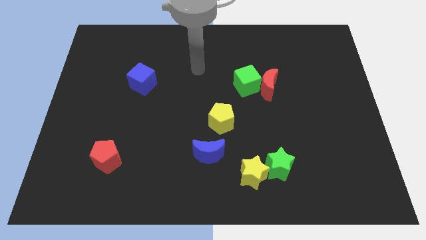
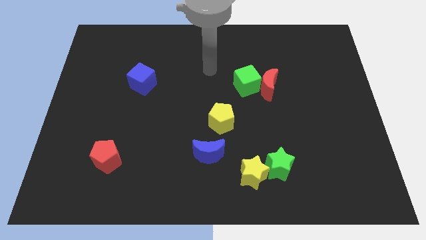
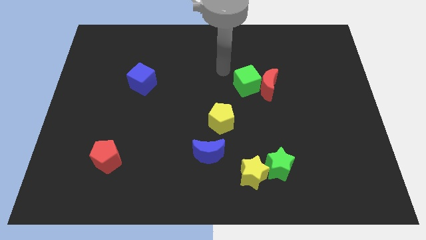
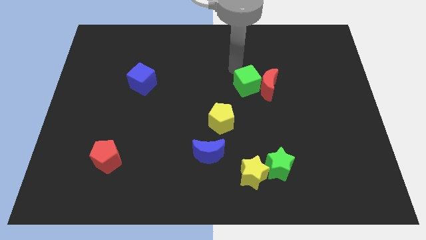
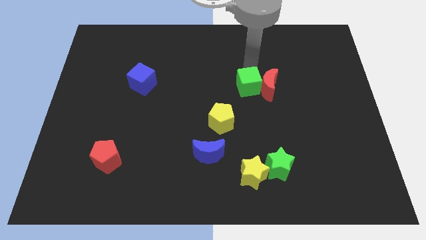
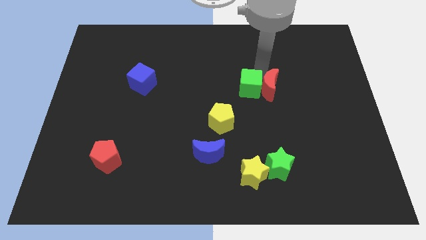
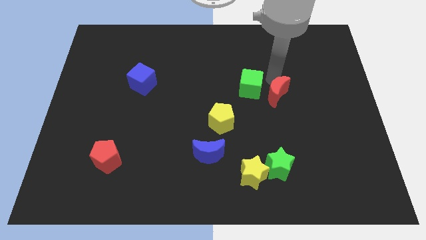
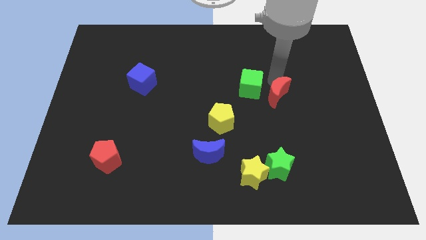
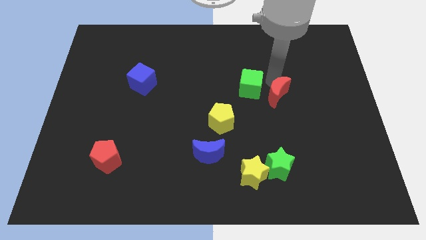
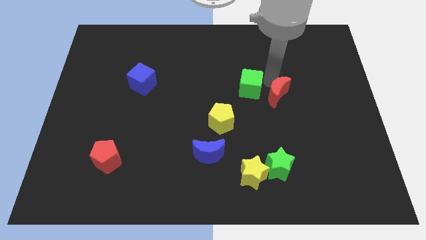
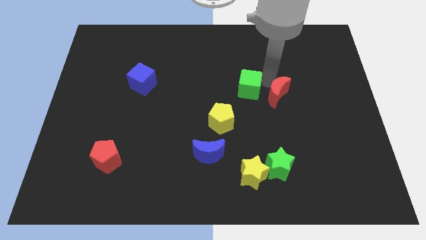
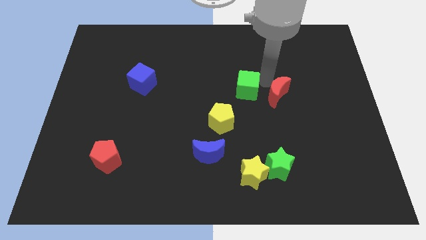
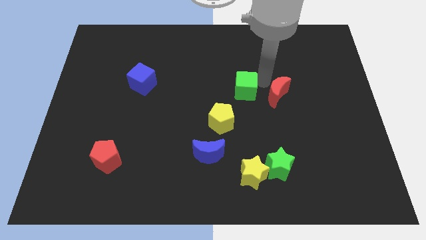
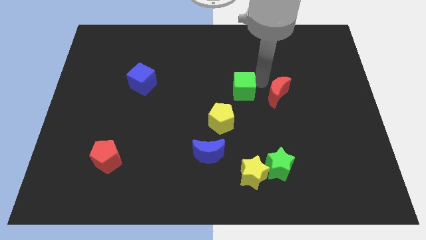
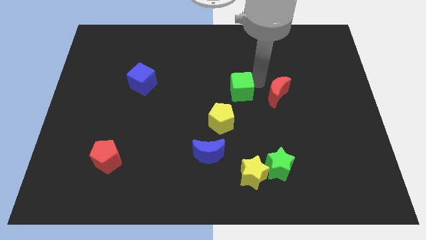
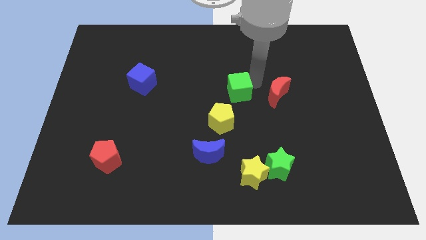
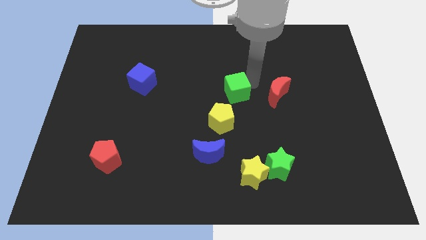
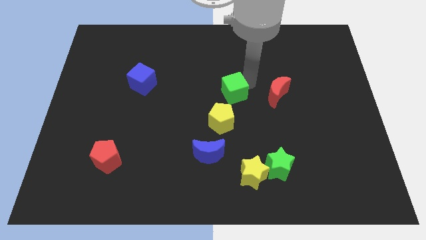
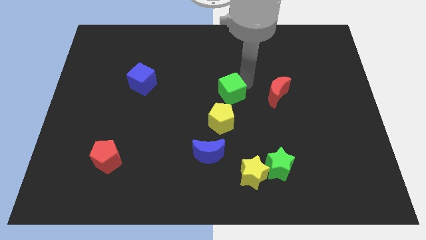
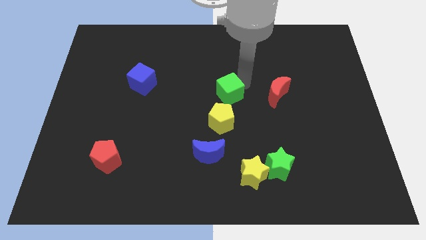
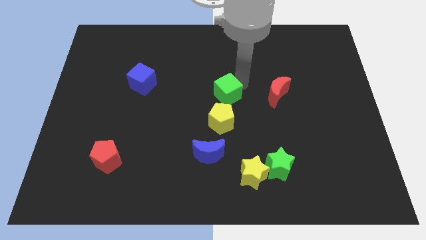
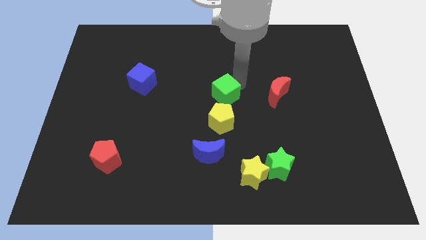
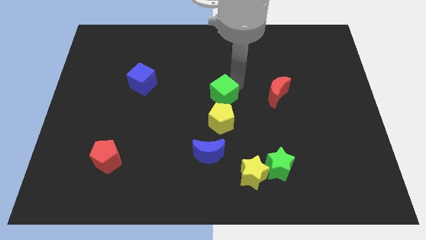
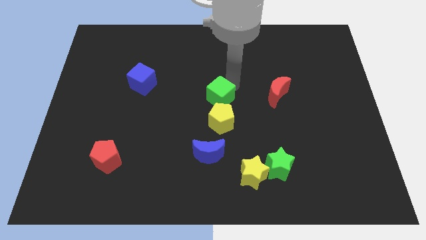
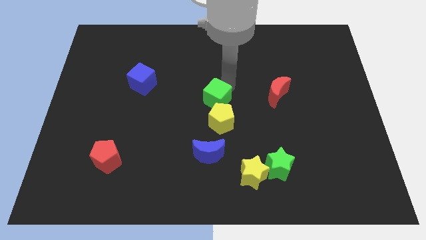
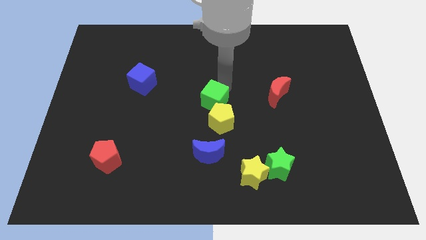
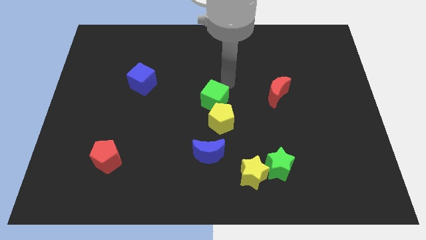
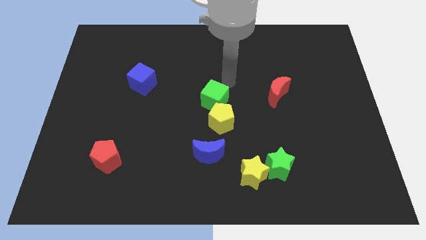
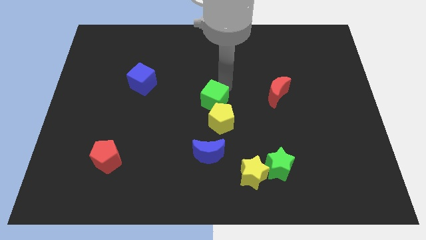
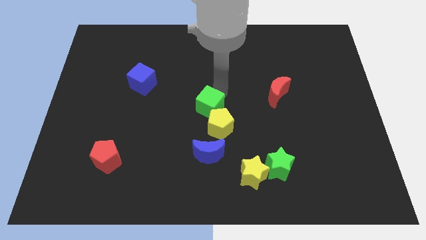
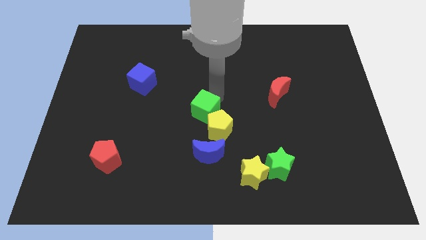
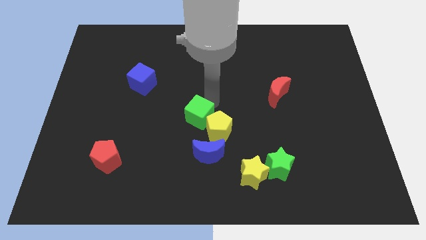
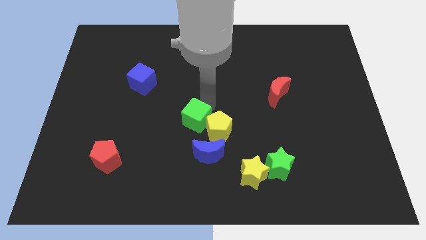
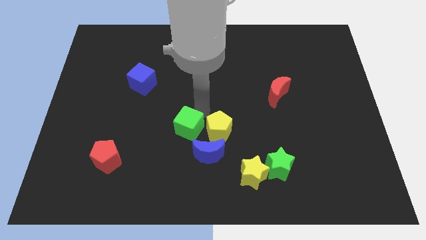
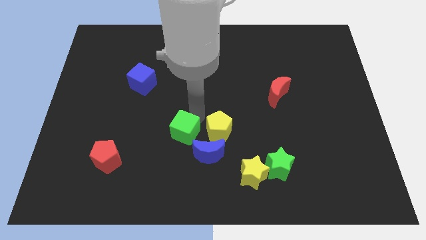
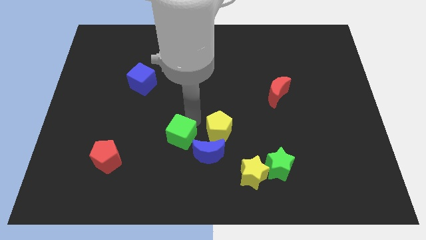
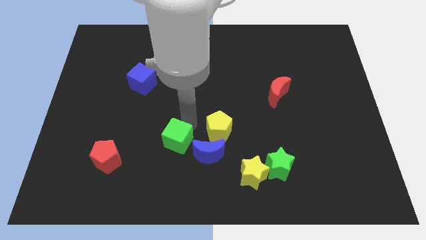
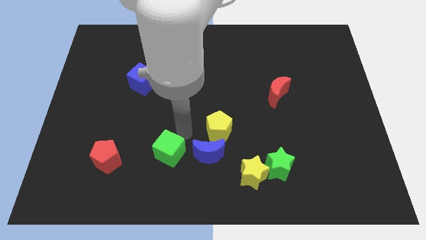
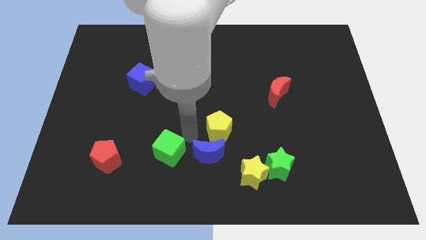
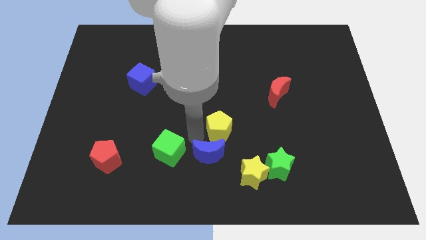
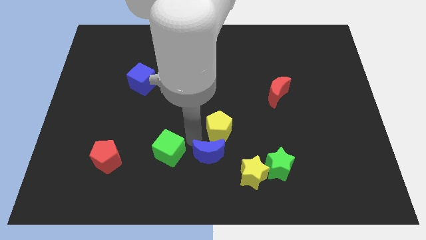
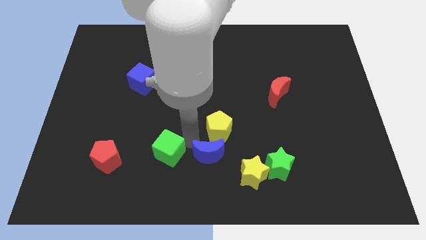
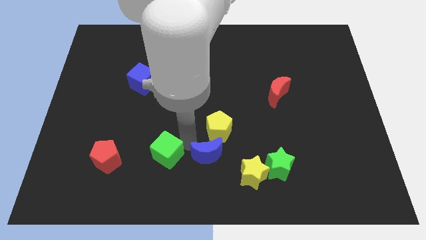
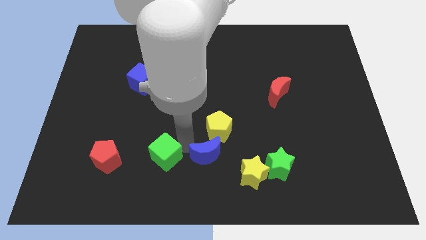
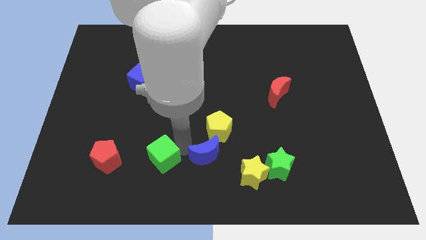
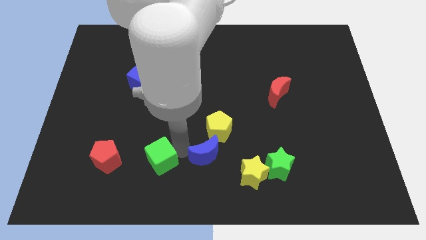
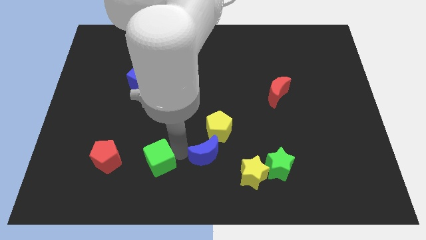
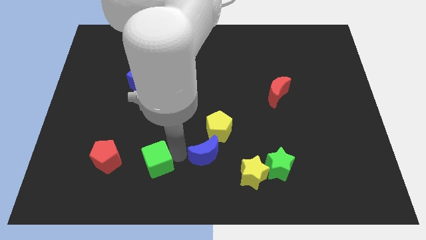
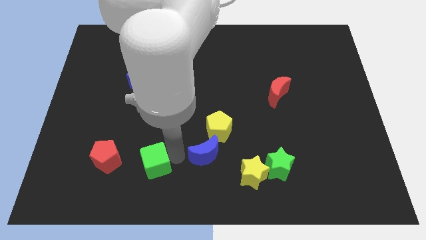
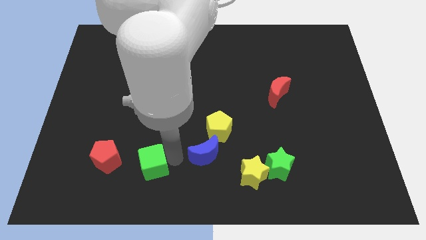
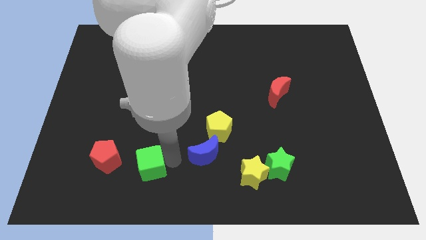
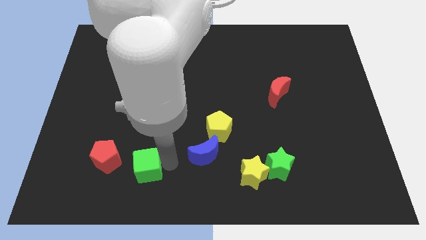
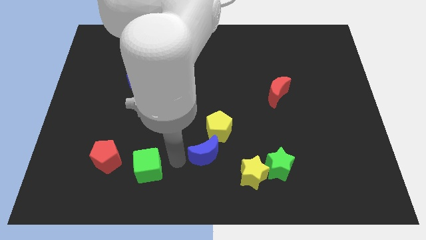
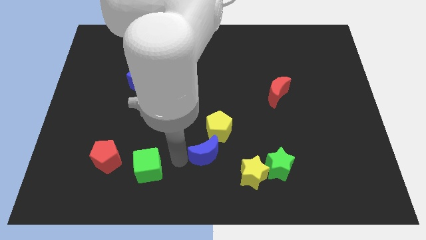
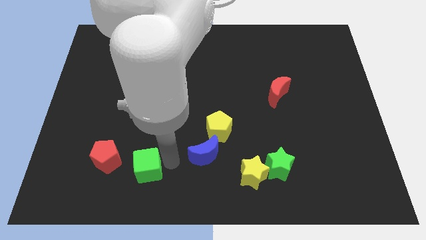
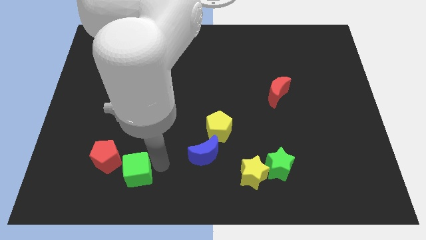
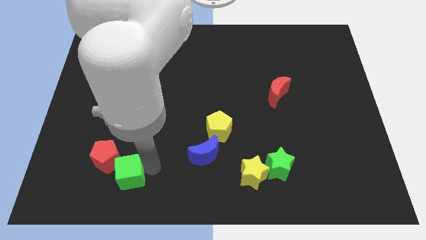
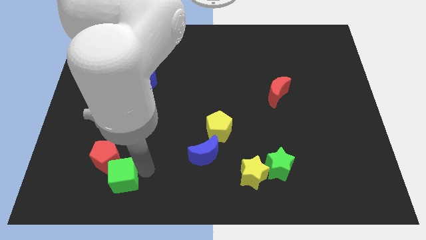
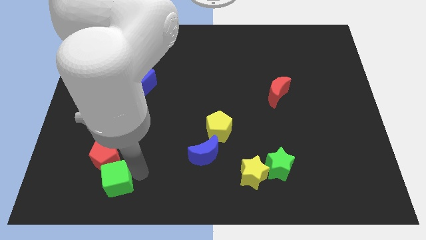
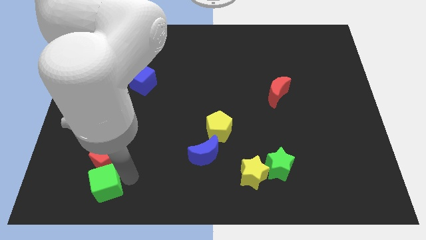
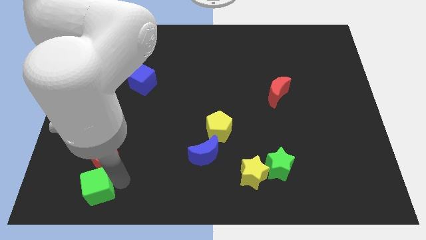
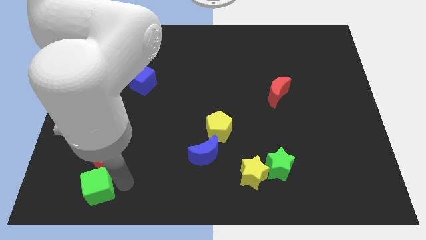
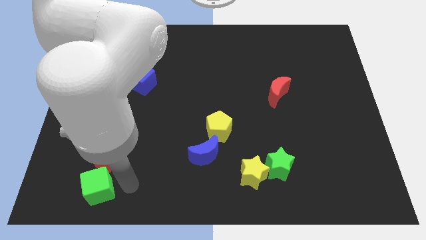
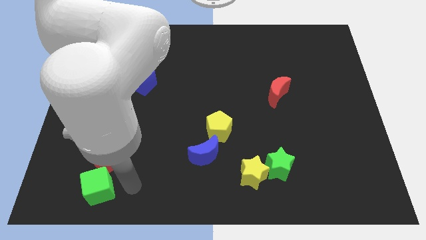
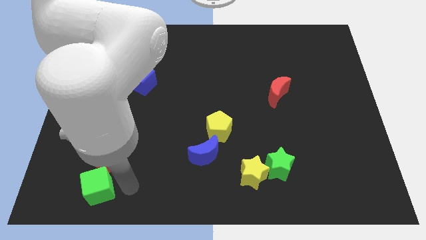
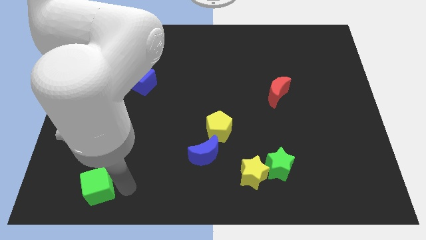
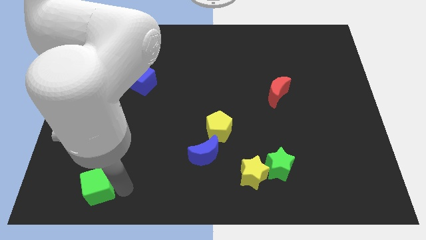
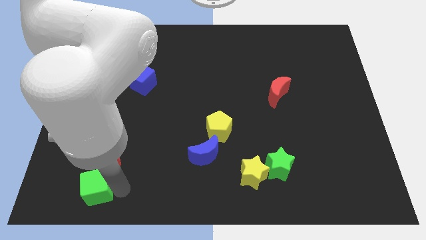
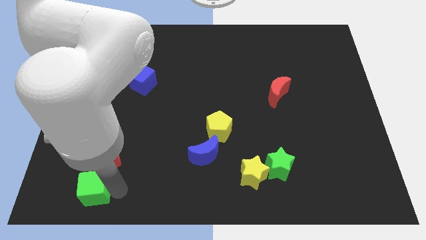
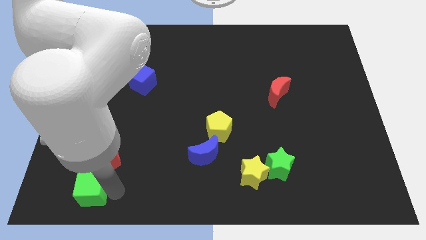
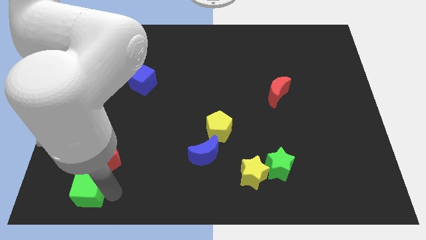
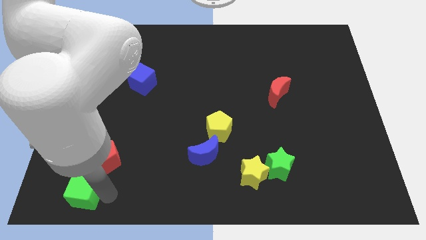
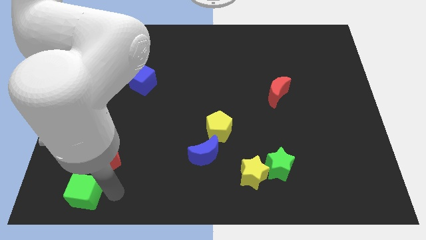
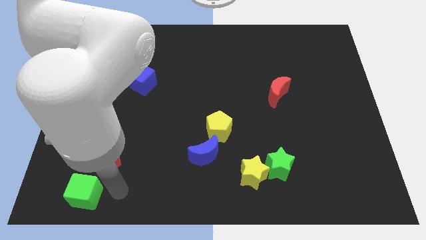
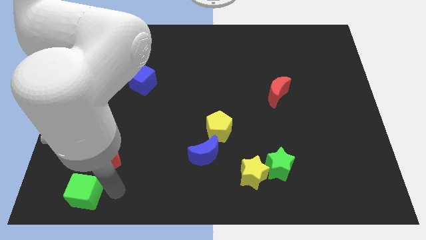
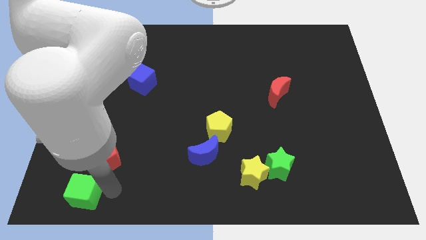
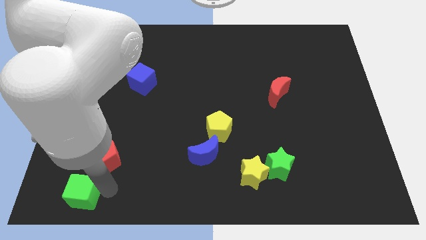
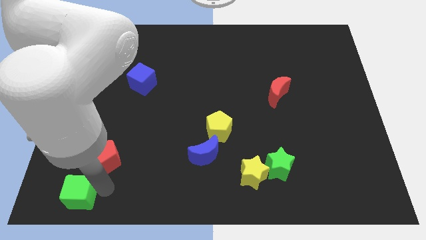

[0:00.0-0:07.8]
push the green cube to the bottom left
